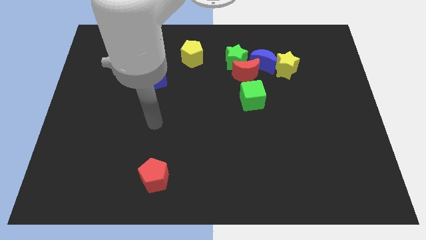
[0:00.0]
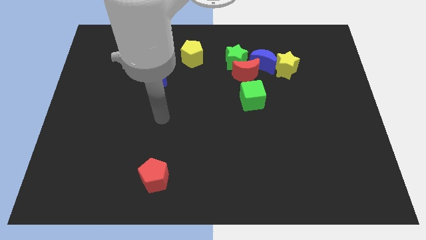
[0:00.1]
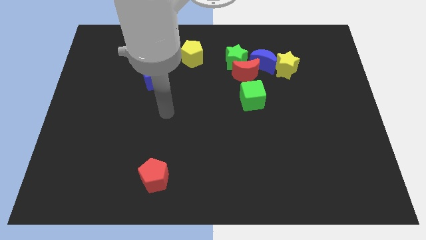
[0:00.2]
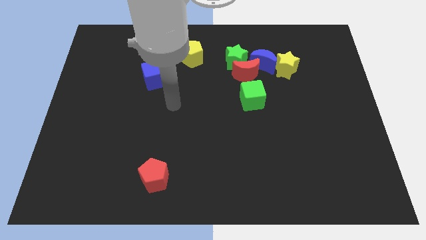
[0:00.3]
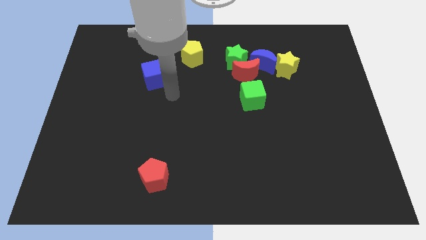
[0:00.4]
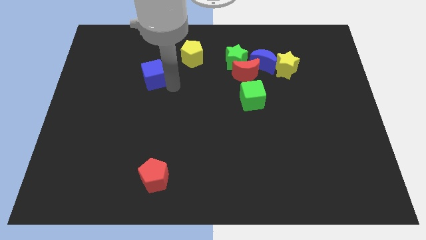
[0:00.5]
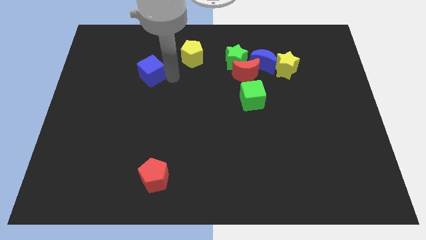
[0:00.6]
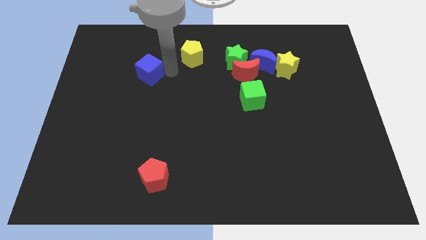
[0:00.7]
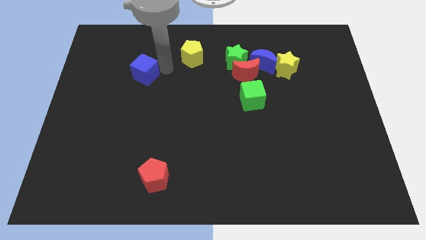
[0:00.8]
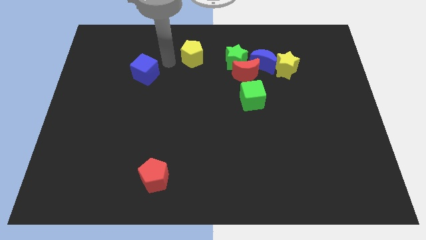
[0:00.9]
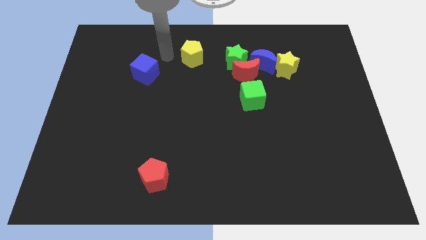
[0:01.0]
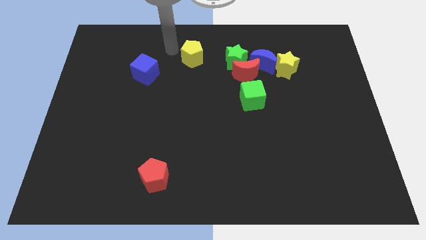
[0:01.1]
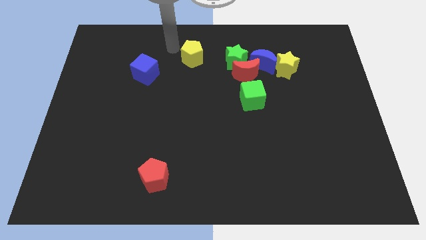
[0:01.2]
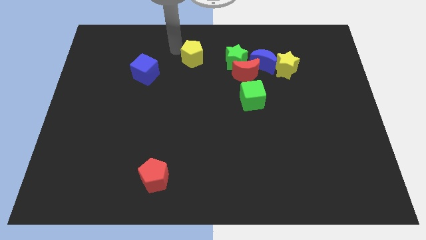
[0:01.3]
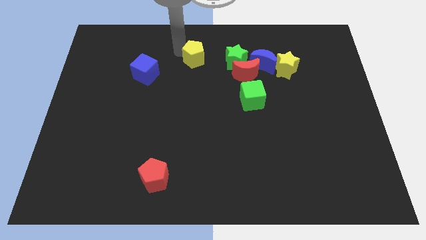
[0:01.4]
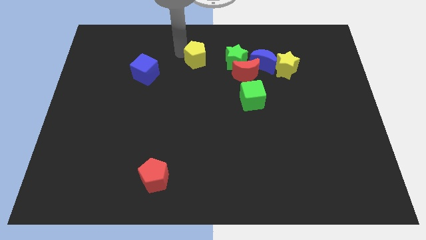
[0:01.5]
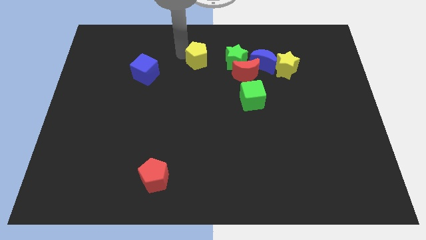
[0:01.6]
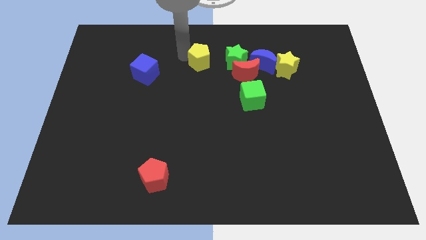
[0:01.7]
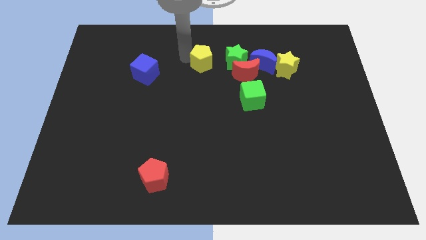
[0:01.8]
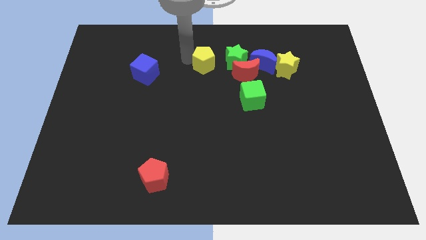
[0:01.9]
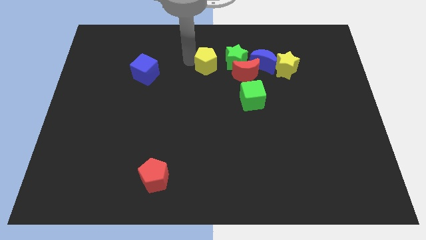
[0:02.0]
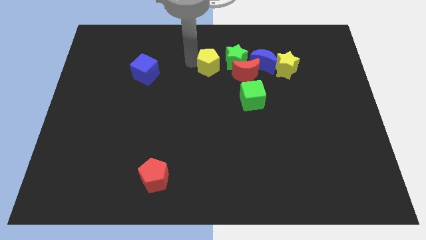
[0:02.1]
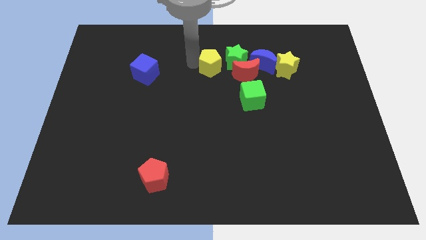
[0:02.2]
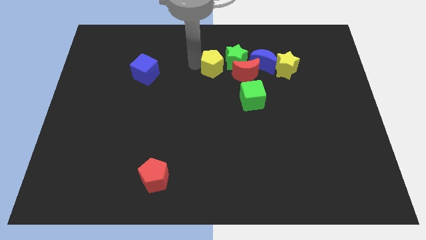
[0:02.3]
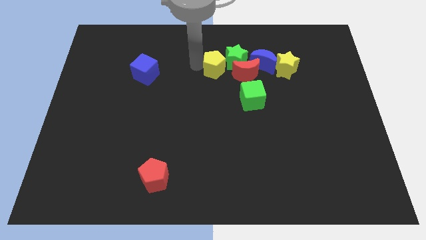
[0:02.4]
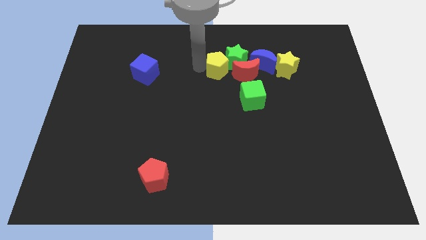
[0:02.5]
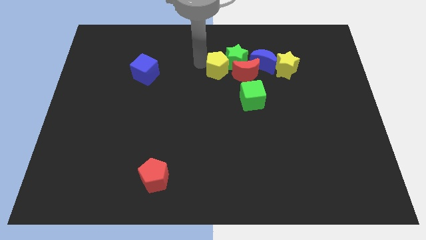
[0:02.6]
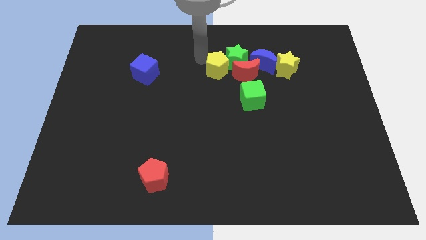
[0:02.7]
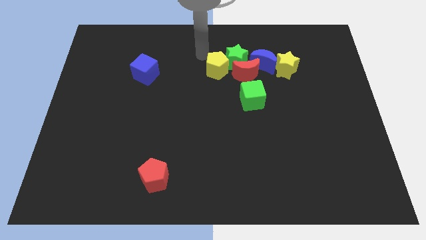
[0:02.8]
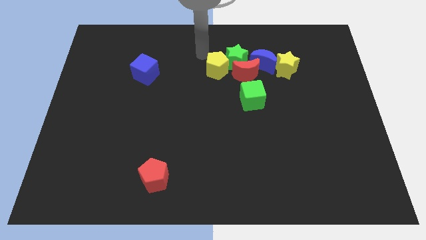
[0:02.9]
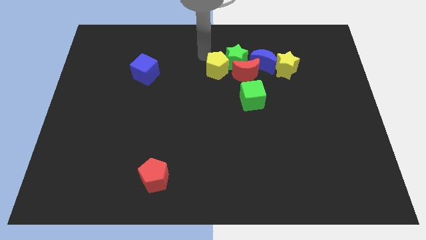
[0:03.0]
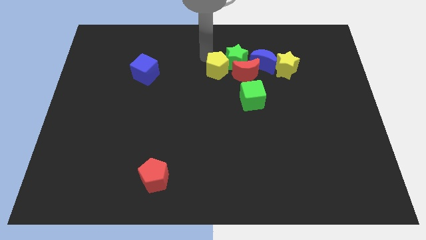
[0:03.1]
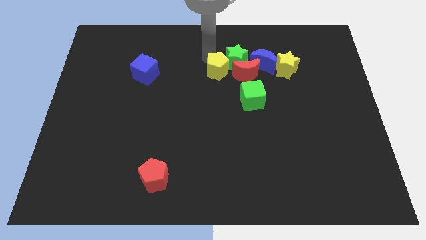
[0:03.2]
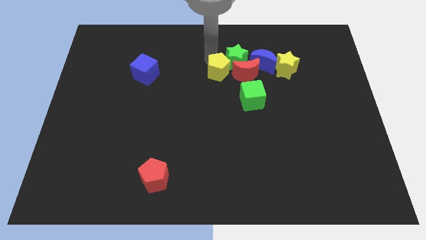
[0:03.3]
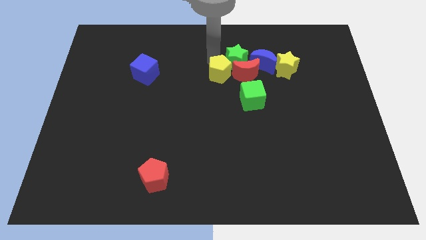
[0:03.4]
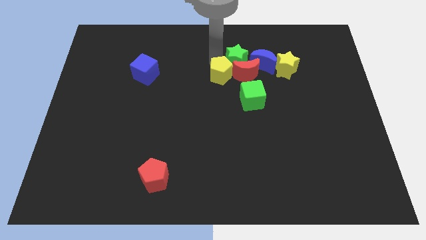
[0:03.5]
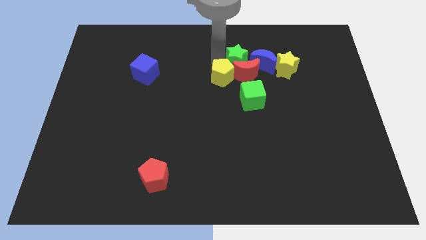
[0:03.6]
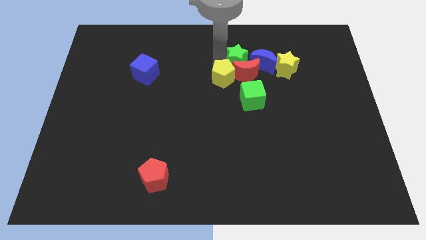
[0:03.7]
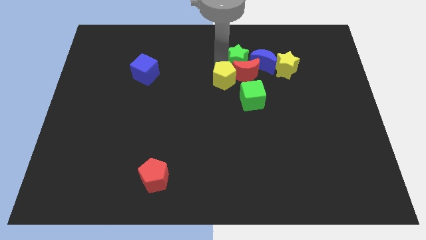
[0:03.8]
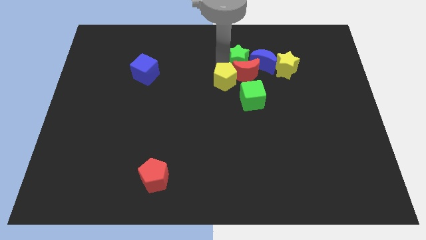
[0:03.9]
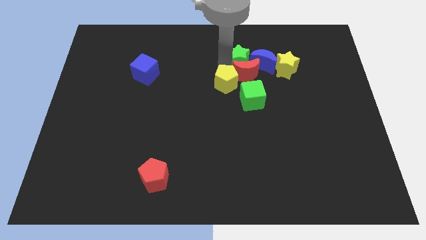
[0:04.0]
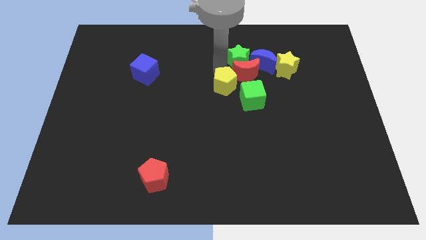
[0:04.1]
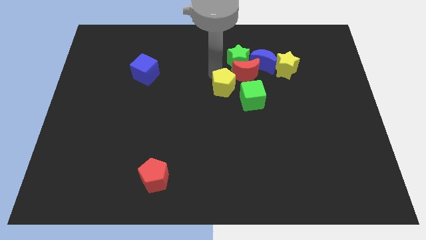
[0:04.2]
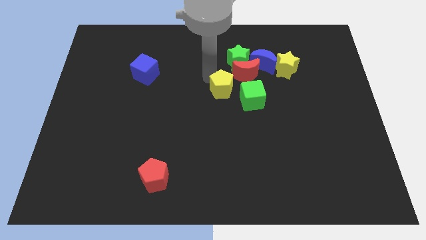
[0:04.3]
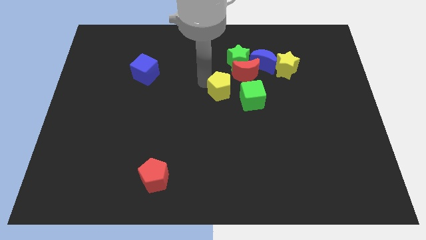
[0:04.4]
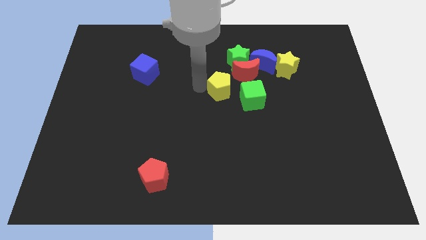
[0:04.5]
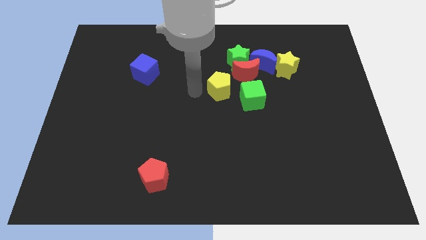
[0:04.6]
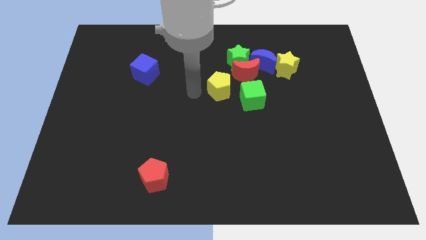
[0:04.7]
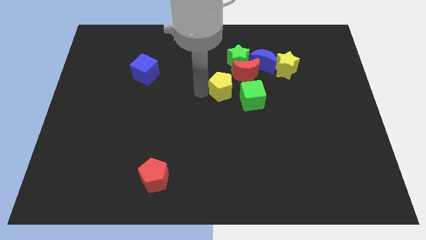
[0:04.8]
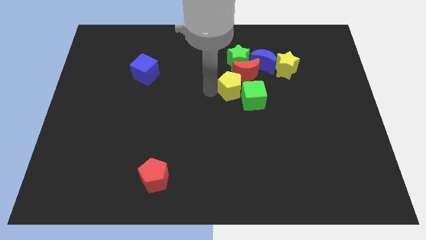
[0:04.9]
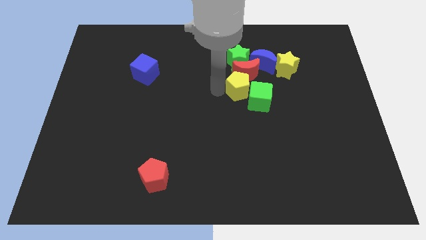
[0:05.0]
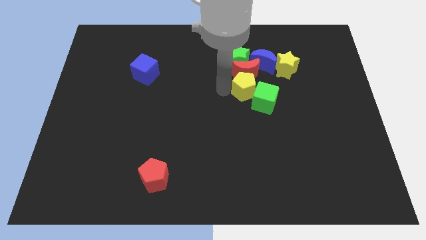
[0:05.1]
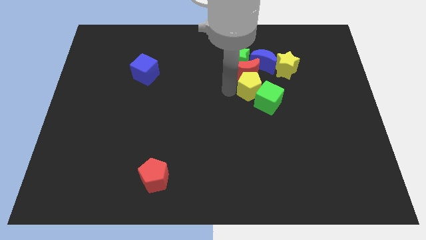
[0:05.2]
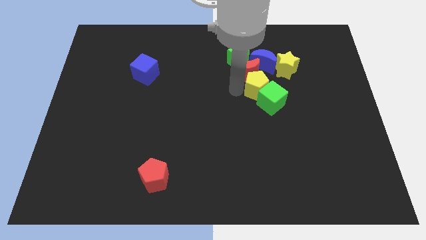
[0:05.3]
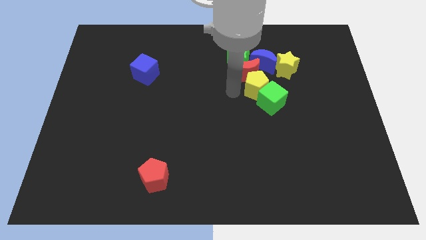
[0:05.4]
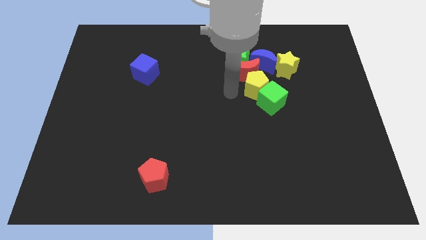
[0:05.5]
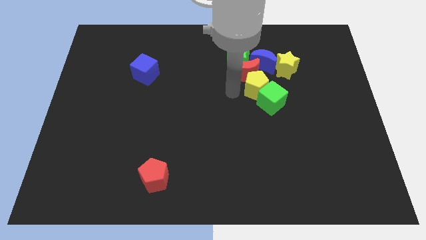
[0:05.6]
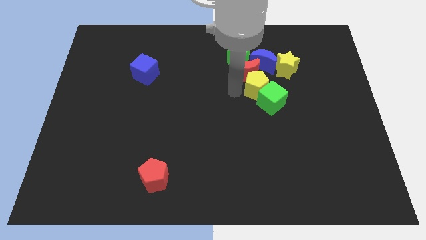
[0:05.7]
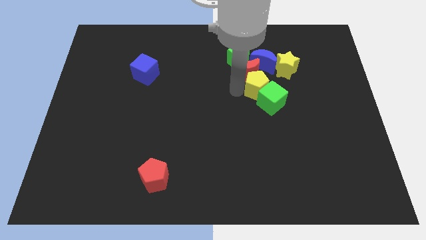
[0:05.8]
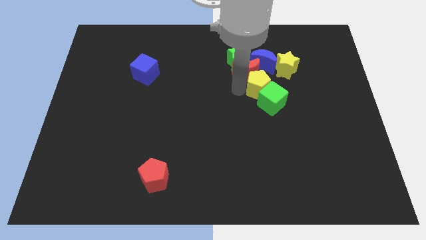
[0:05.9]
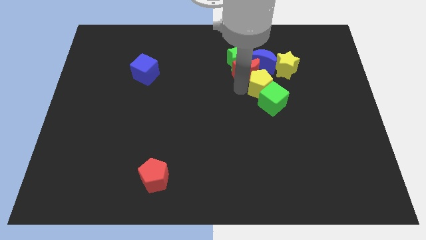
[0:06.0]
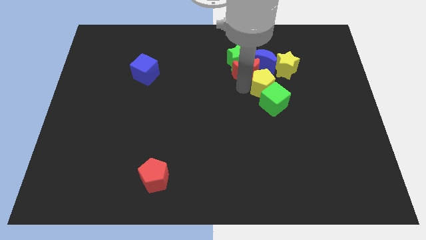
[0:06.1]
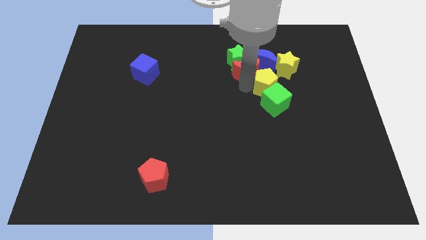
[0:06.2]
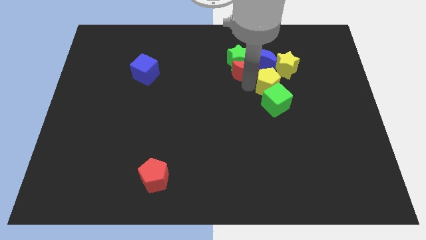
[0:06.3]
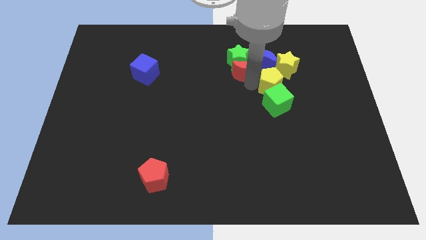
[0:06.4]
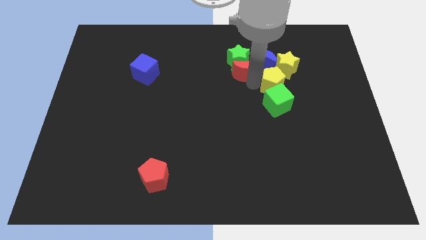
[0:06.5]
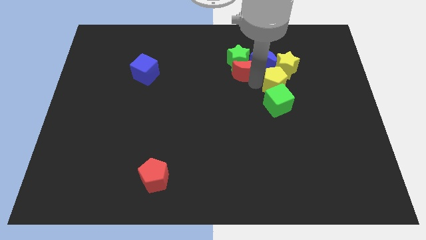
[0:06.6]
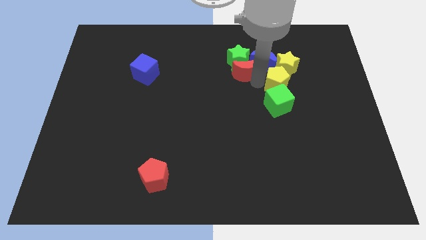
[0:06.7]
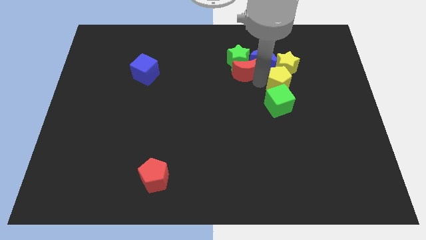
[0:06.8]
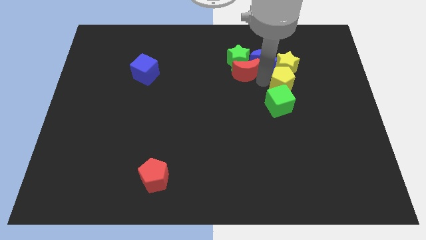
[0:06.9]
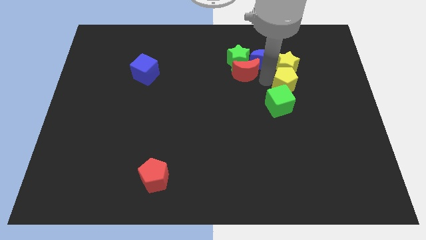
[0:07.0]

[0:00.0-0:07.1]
put the yellow pentagon to the bottom right side of the yellow star

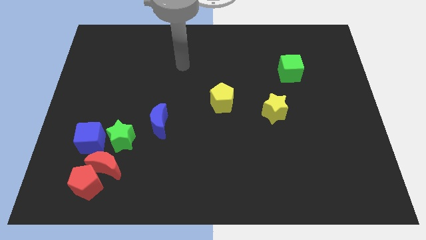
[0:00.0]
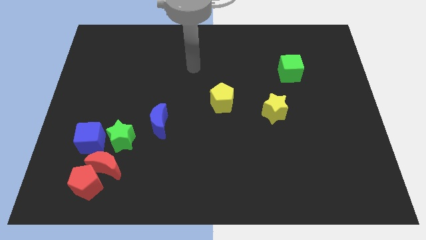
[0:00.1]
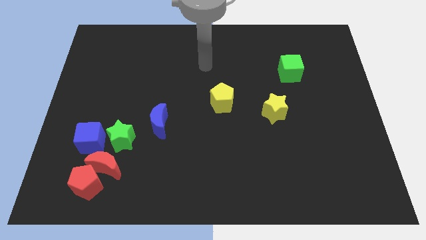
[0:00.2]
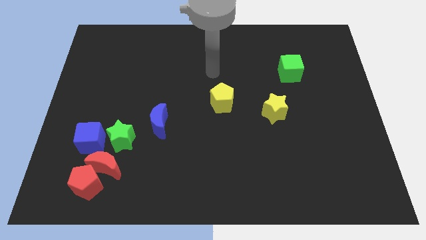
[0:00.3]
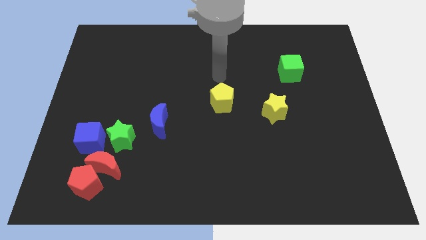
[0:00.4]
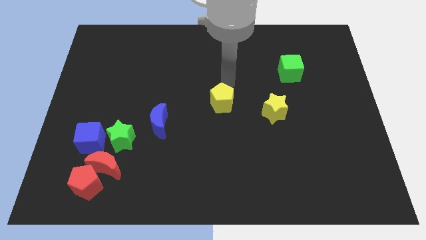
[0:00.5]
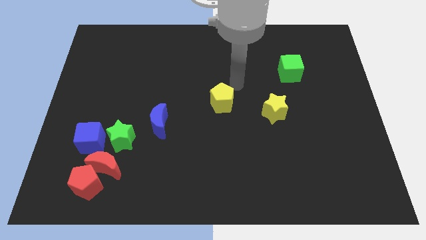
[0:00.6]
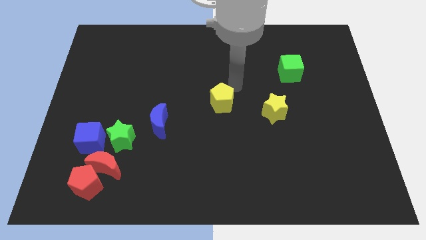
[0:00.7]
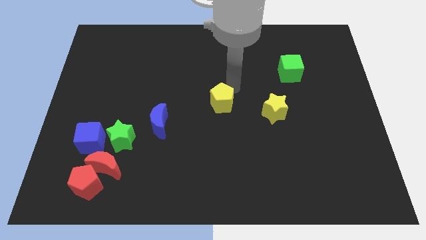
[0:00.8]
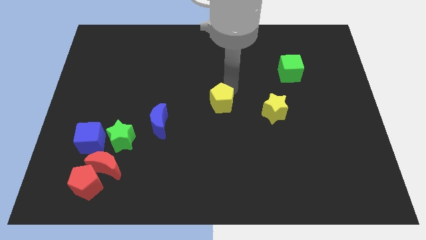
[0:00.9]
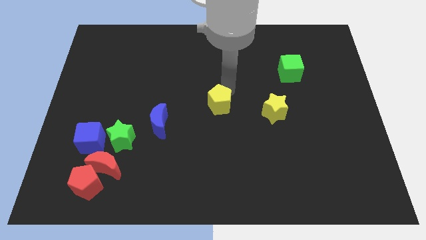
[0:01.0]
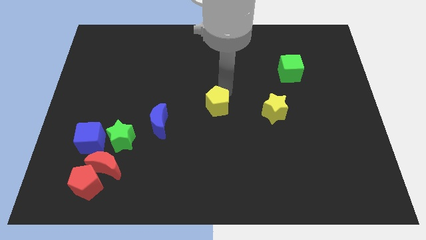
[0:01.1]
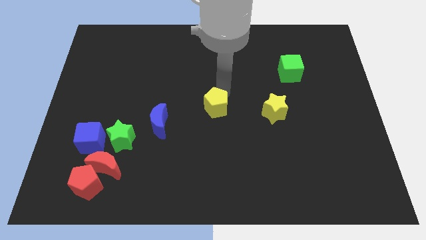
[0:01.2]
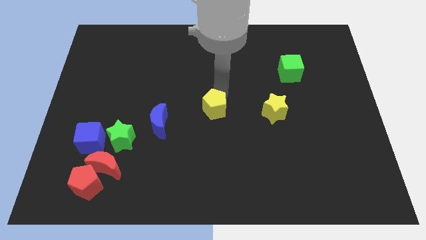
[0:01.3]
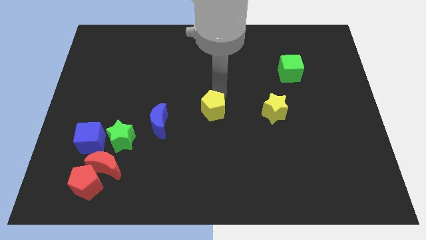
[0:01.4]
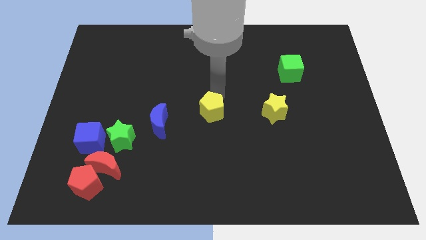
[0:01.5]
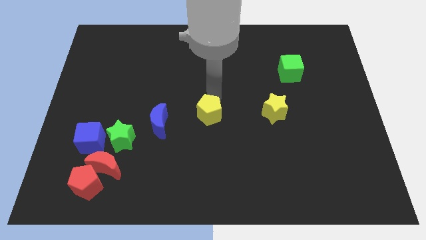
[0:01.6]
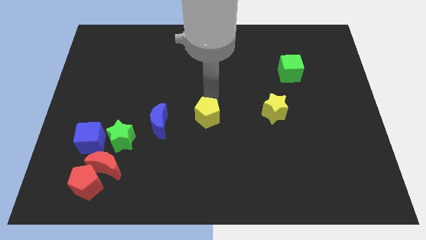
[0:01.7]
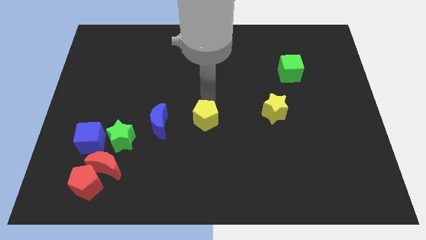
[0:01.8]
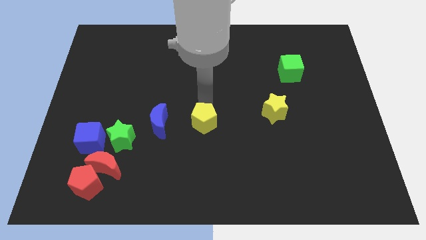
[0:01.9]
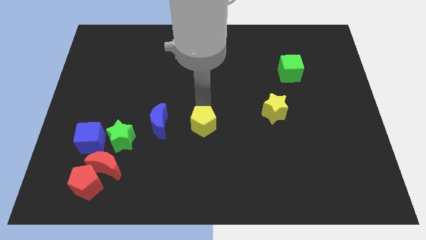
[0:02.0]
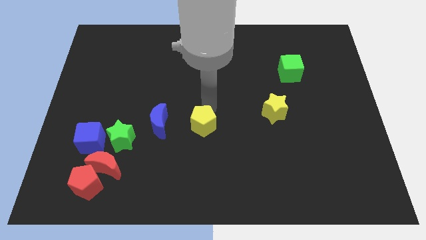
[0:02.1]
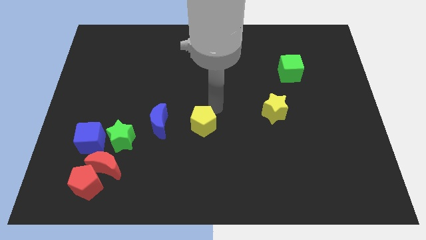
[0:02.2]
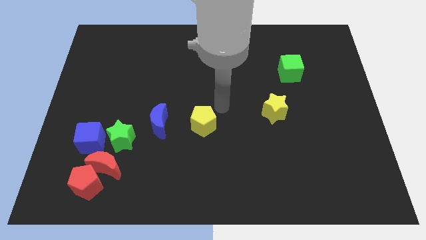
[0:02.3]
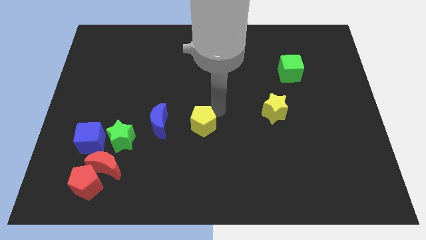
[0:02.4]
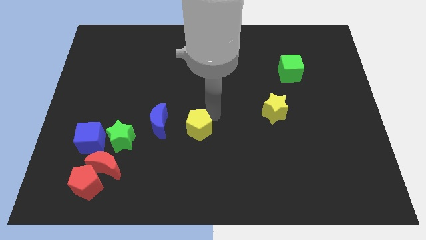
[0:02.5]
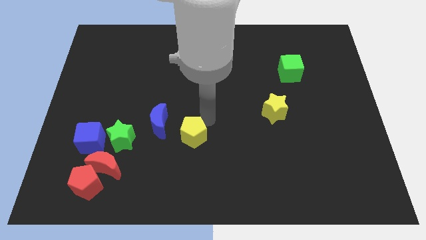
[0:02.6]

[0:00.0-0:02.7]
push the yellow pentagon to the bottom right of the blue moon
